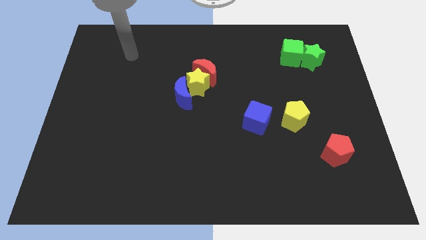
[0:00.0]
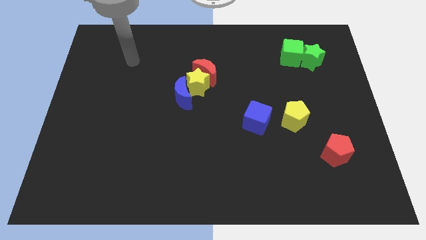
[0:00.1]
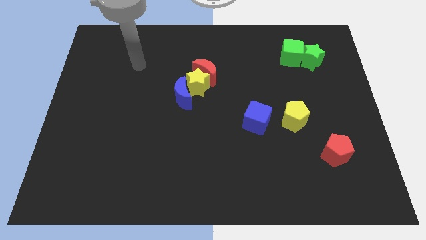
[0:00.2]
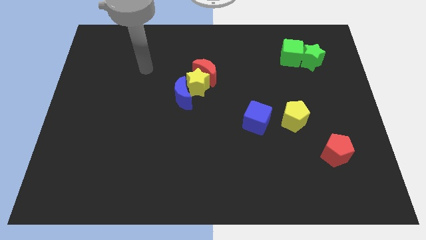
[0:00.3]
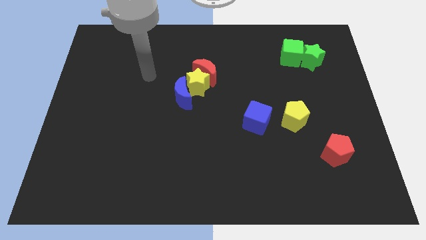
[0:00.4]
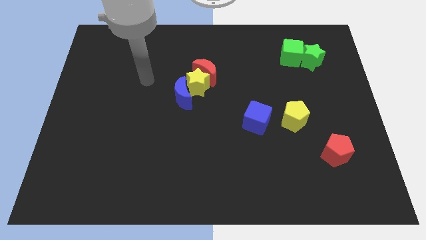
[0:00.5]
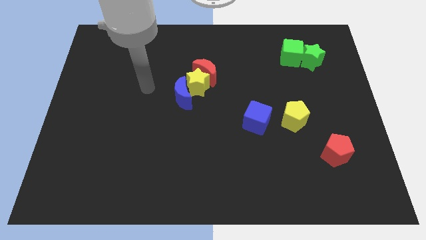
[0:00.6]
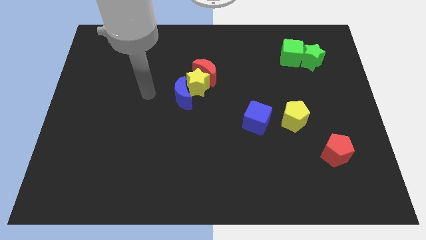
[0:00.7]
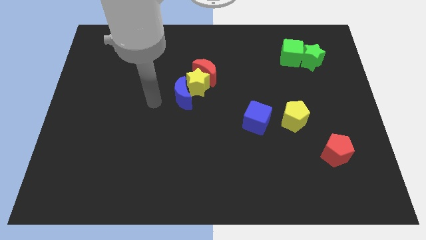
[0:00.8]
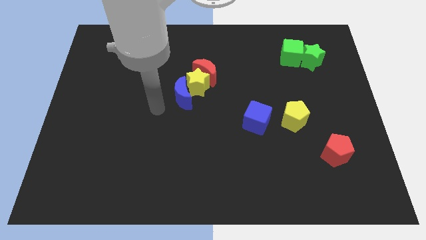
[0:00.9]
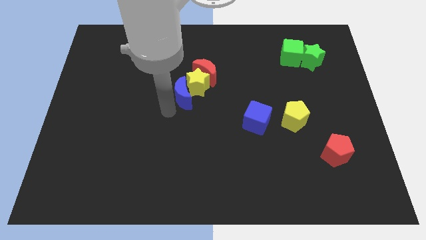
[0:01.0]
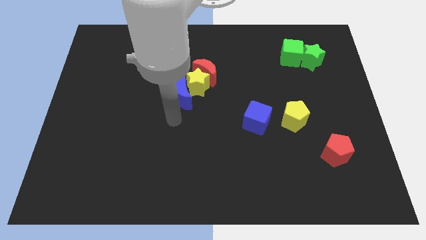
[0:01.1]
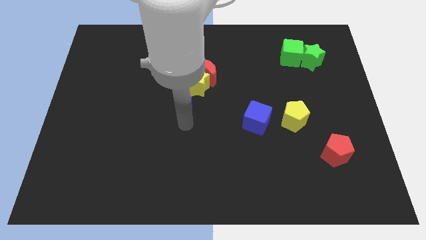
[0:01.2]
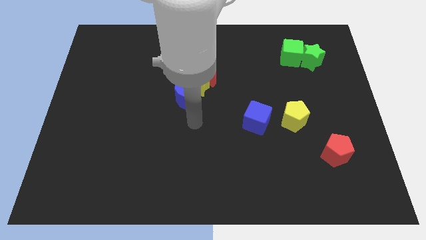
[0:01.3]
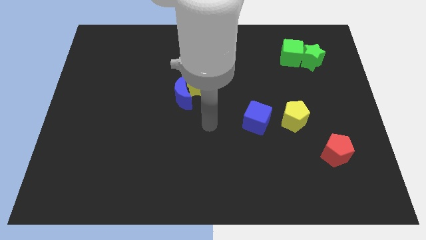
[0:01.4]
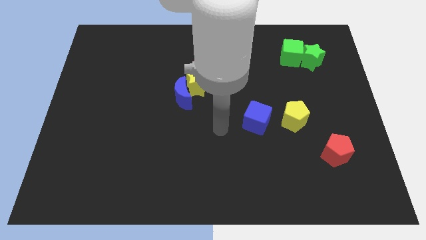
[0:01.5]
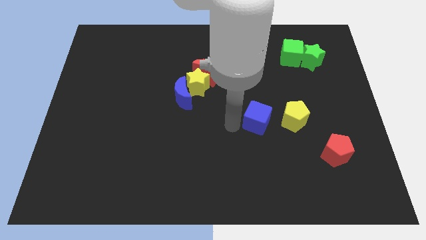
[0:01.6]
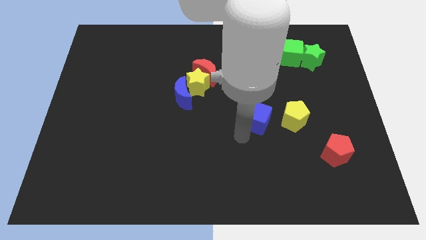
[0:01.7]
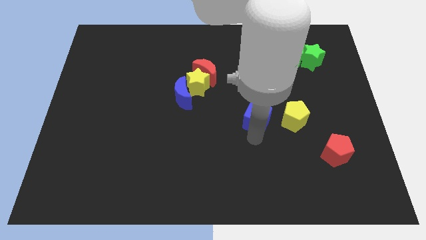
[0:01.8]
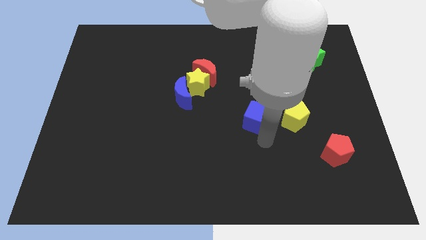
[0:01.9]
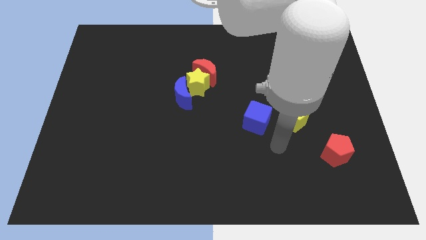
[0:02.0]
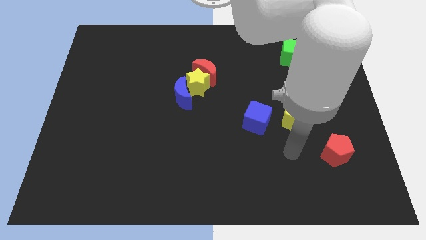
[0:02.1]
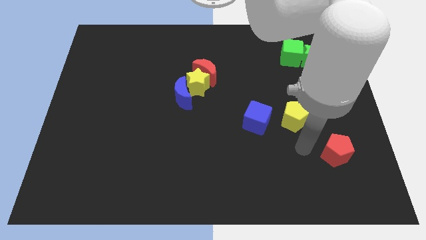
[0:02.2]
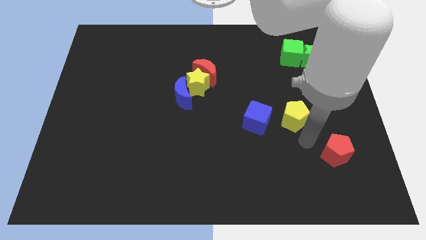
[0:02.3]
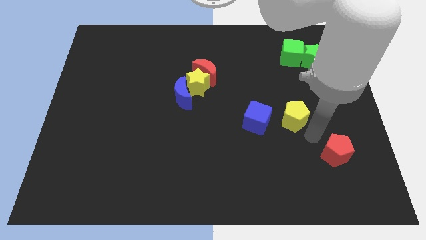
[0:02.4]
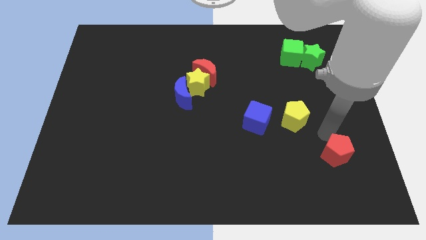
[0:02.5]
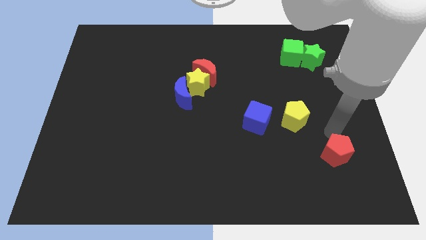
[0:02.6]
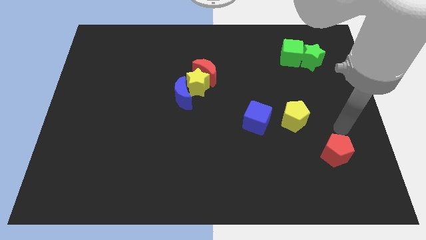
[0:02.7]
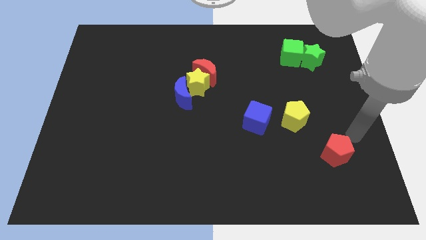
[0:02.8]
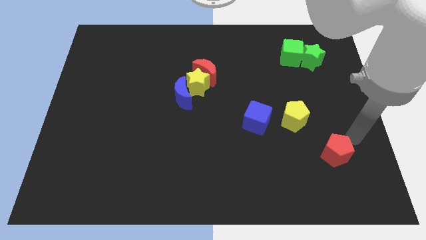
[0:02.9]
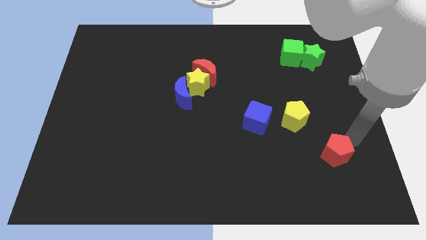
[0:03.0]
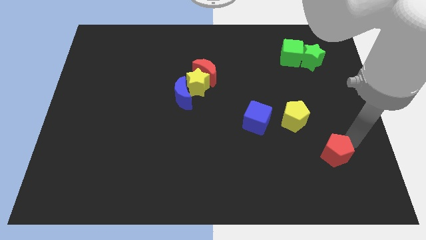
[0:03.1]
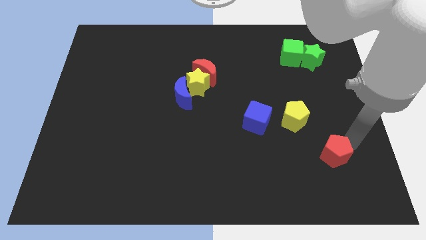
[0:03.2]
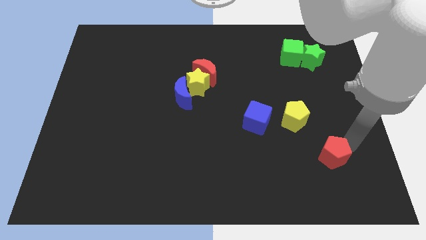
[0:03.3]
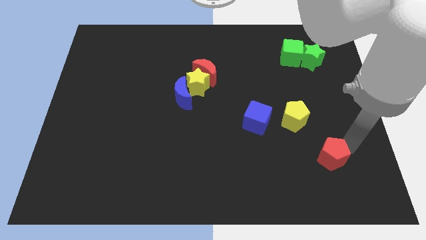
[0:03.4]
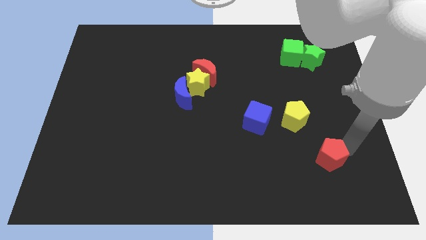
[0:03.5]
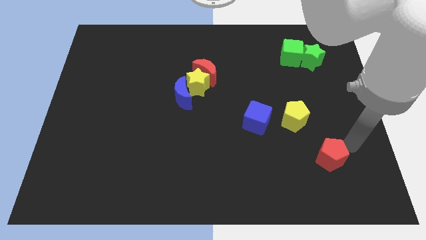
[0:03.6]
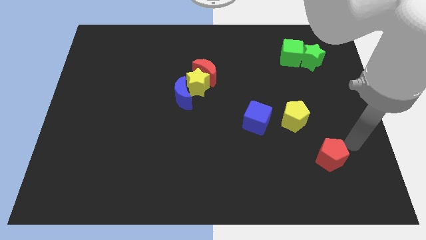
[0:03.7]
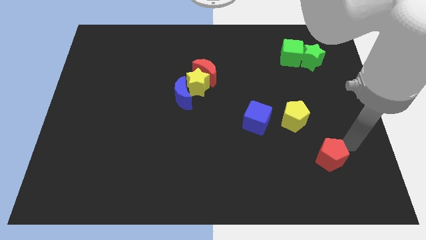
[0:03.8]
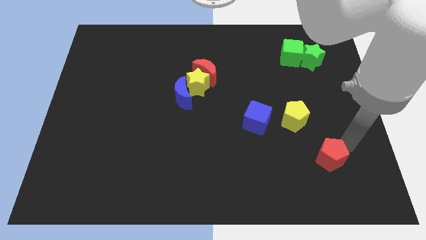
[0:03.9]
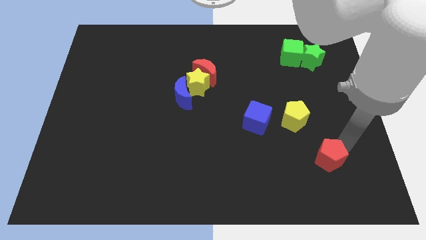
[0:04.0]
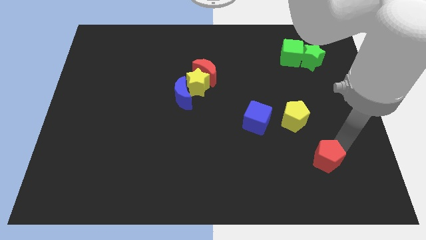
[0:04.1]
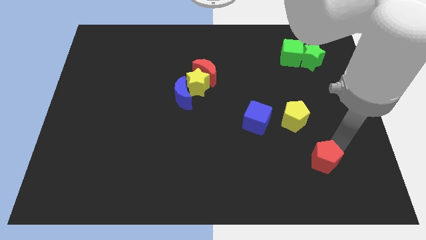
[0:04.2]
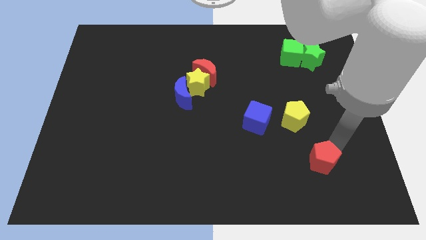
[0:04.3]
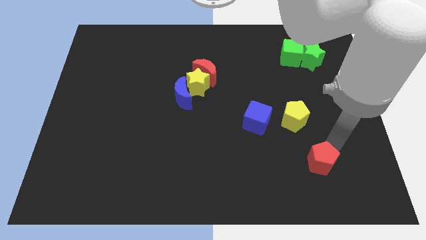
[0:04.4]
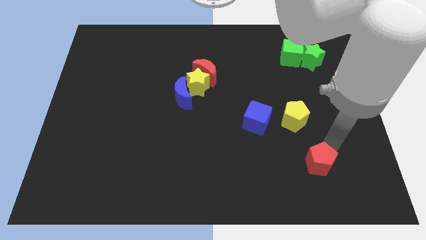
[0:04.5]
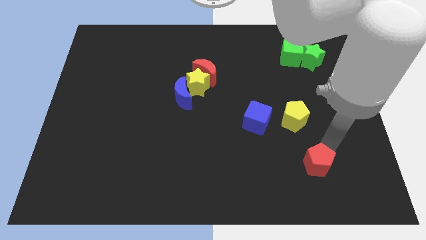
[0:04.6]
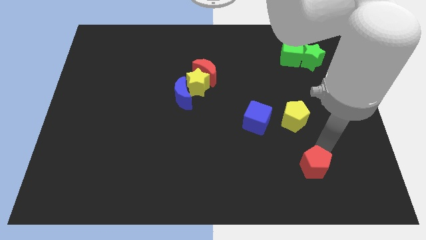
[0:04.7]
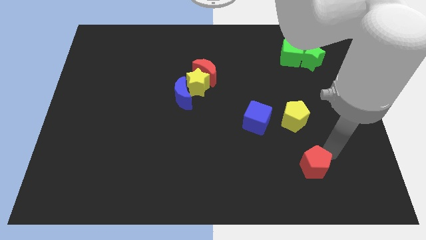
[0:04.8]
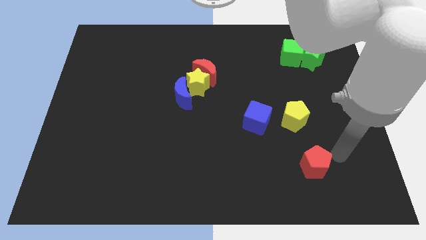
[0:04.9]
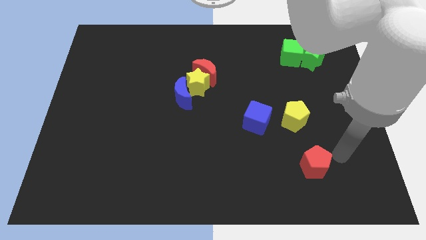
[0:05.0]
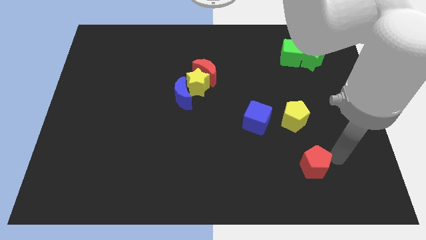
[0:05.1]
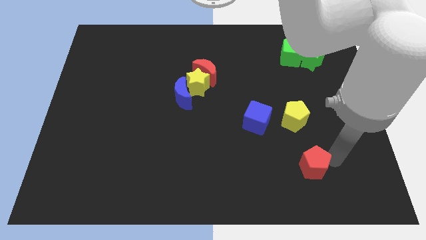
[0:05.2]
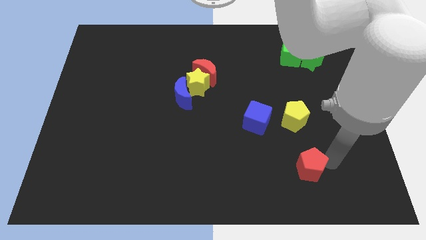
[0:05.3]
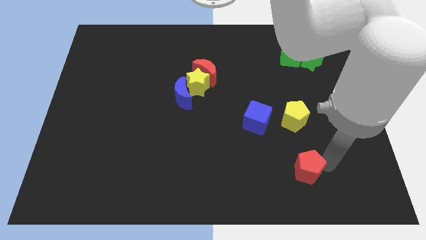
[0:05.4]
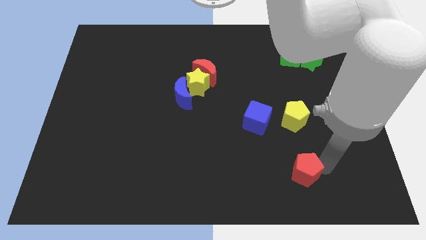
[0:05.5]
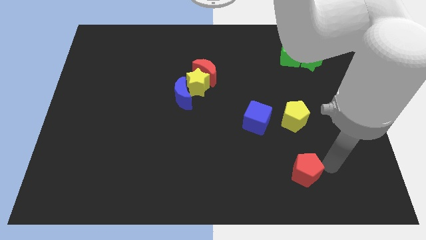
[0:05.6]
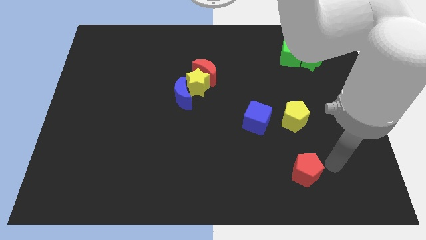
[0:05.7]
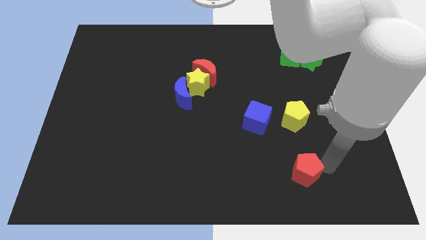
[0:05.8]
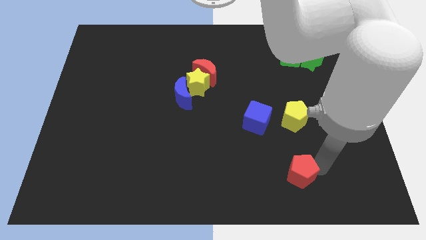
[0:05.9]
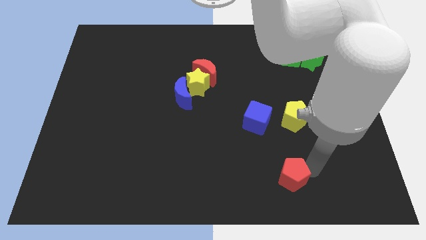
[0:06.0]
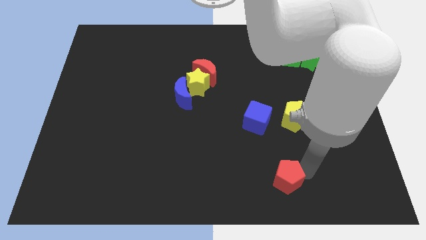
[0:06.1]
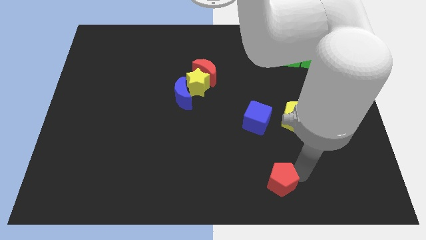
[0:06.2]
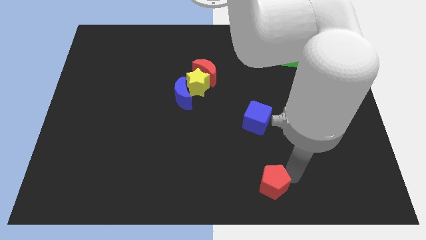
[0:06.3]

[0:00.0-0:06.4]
push the red pentagon to the bottom
